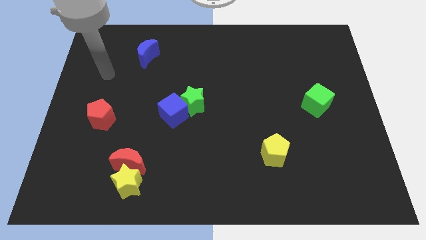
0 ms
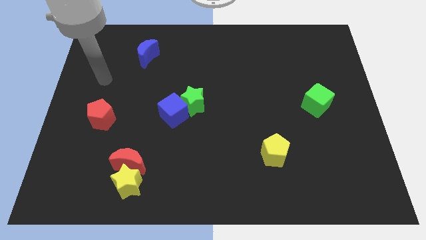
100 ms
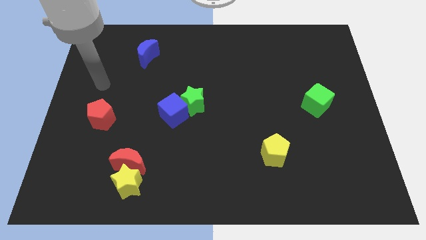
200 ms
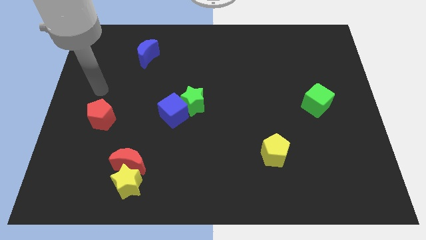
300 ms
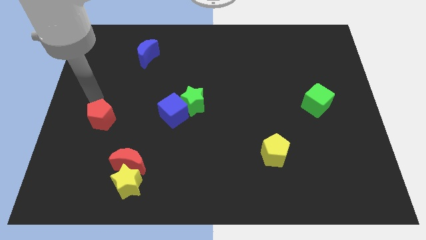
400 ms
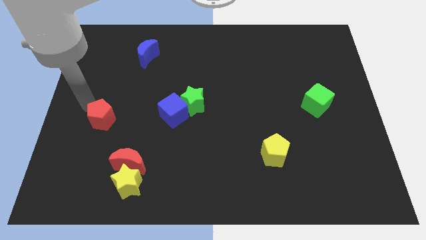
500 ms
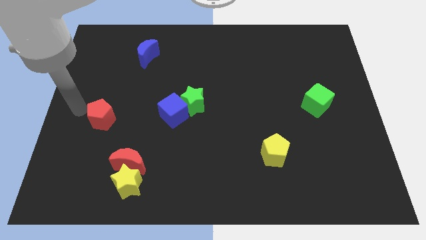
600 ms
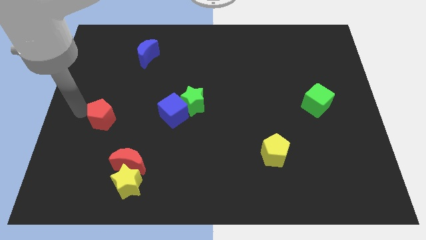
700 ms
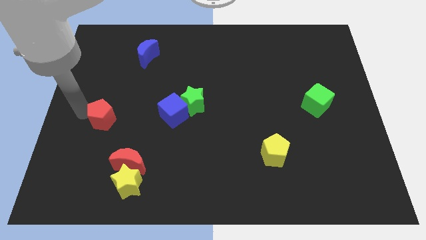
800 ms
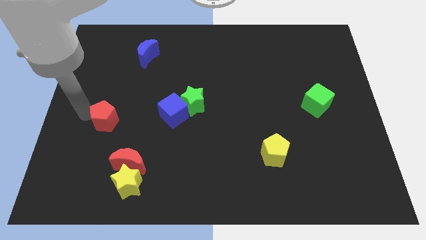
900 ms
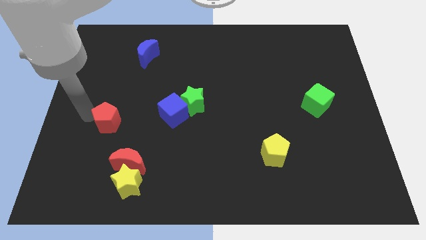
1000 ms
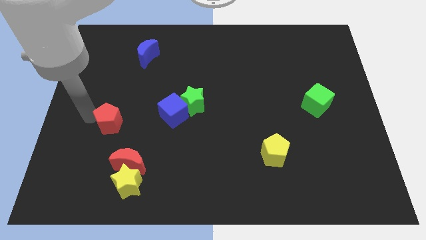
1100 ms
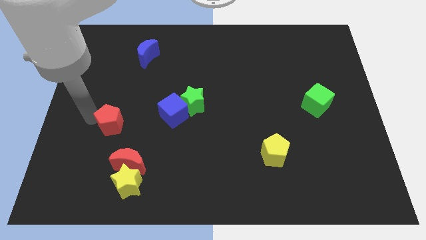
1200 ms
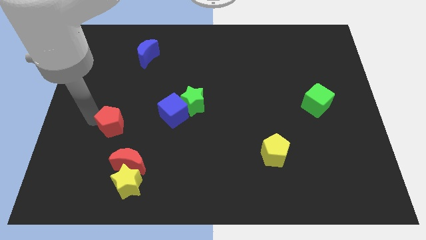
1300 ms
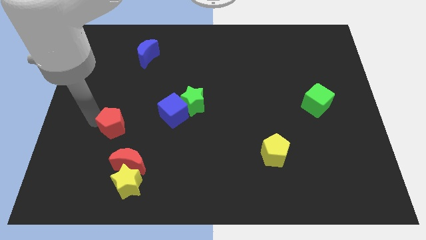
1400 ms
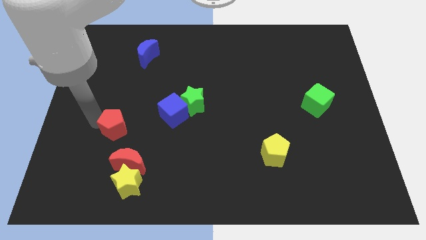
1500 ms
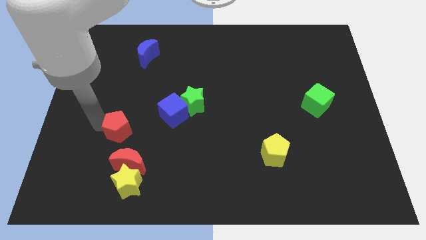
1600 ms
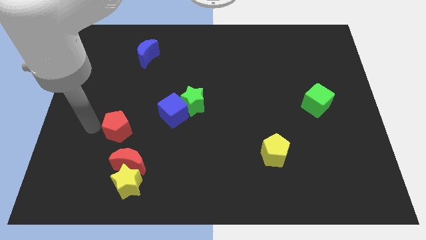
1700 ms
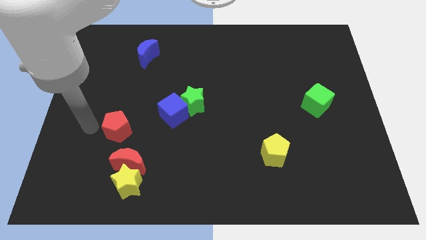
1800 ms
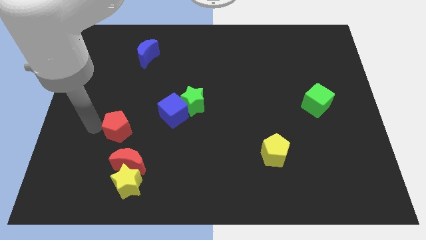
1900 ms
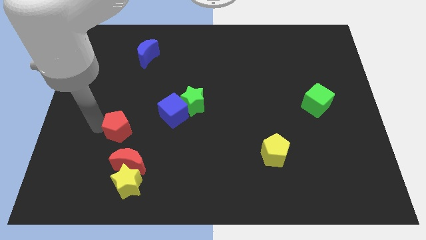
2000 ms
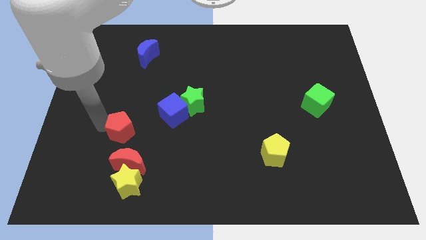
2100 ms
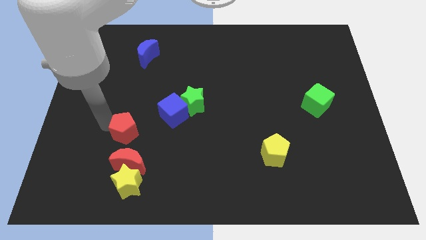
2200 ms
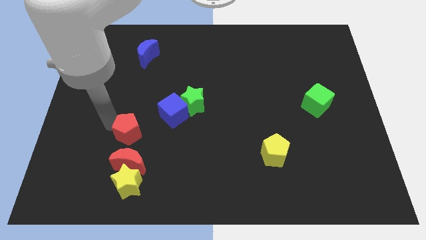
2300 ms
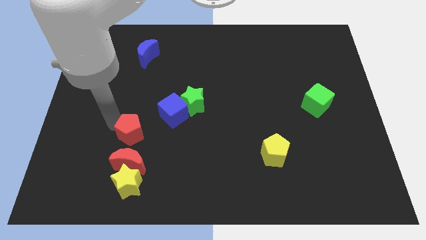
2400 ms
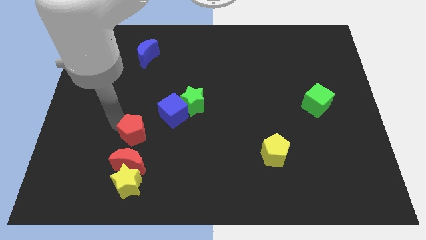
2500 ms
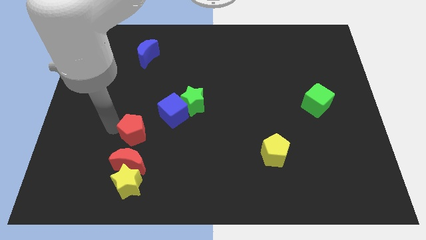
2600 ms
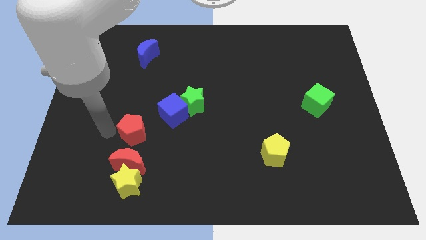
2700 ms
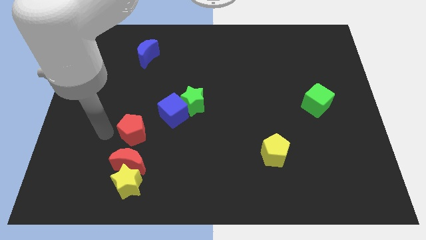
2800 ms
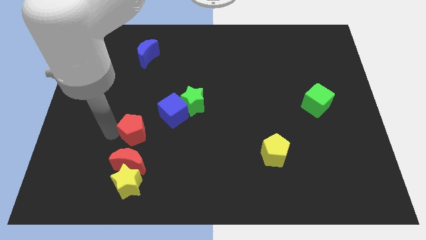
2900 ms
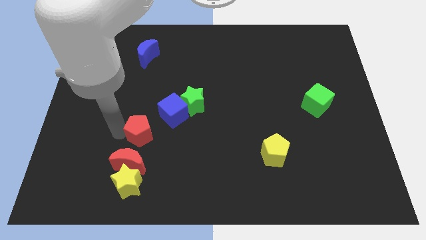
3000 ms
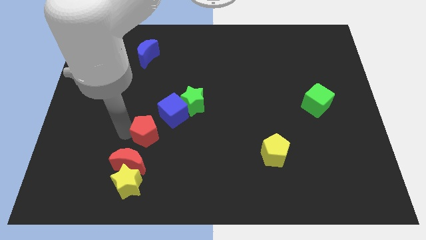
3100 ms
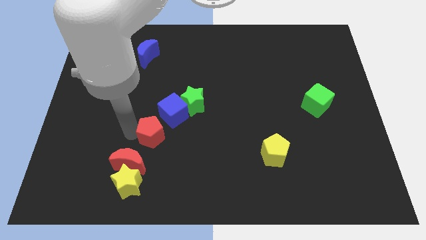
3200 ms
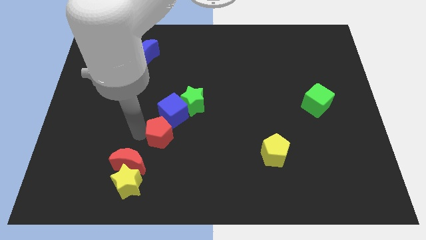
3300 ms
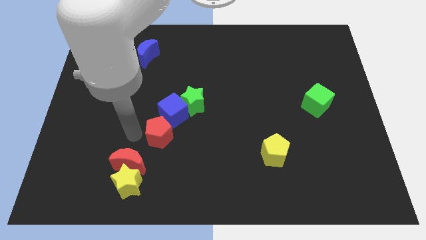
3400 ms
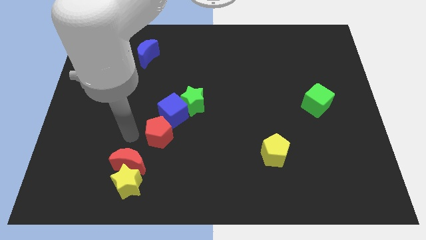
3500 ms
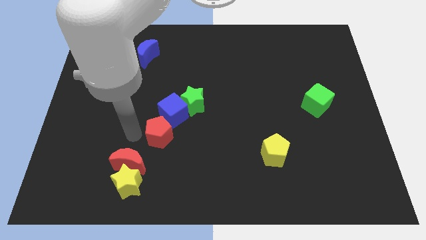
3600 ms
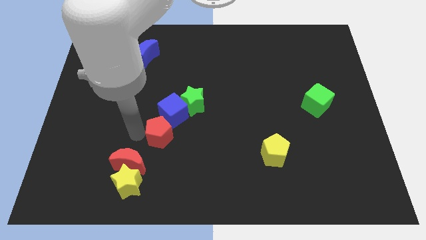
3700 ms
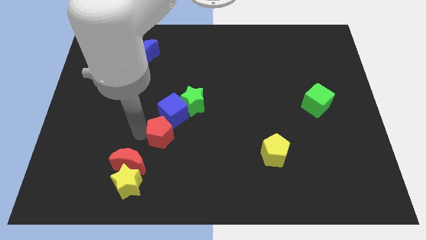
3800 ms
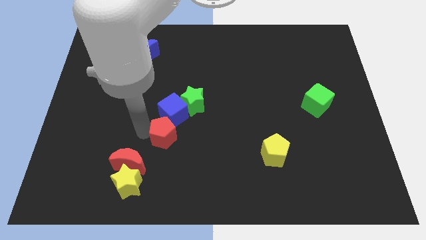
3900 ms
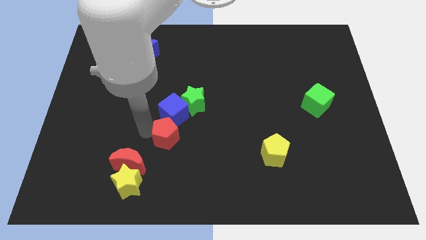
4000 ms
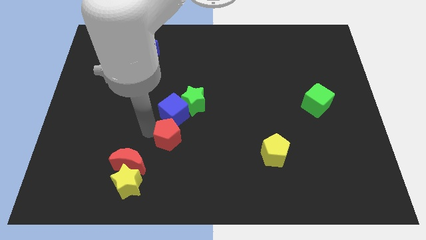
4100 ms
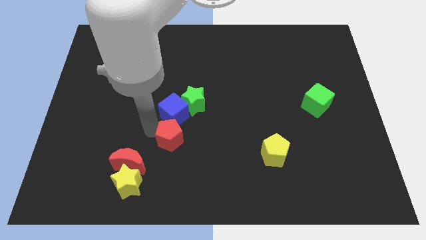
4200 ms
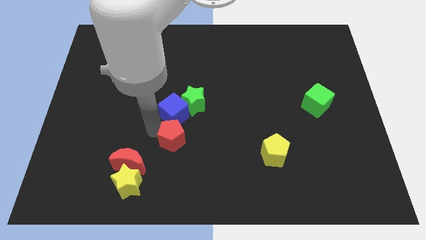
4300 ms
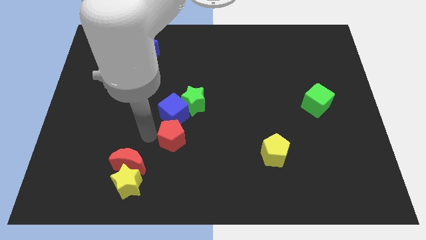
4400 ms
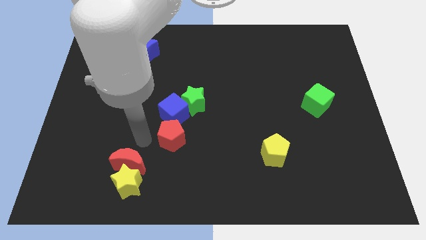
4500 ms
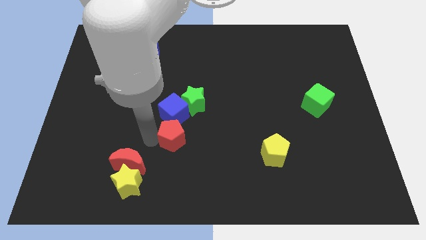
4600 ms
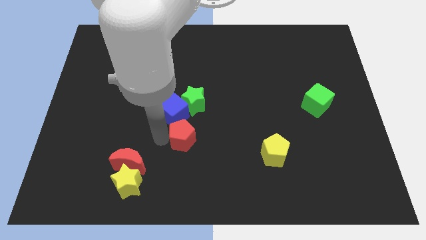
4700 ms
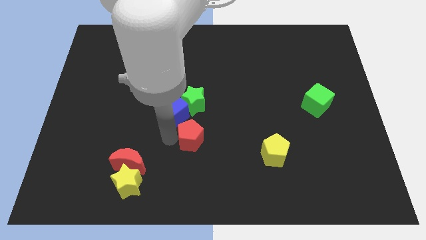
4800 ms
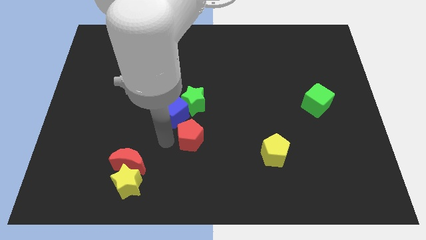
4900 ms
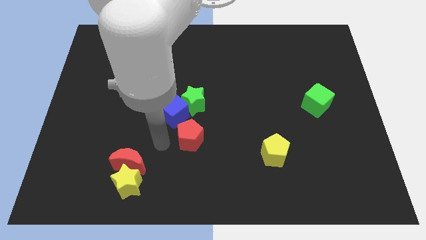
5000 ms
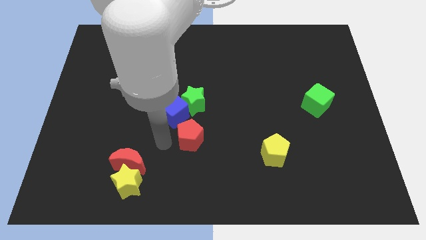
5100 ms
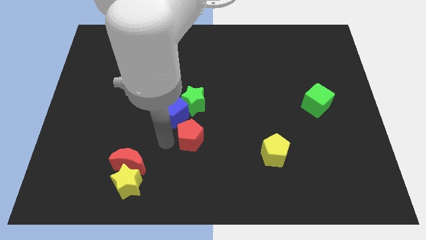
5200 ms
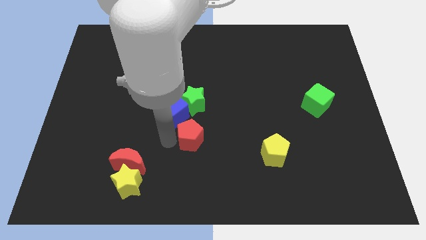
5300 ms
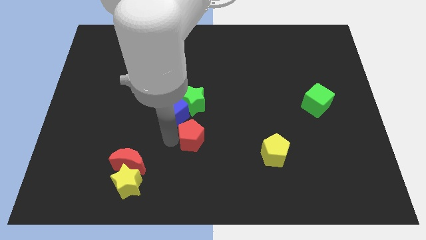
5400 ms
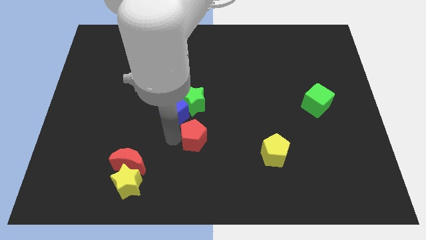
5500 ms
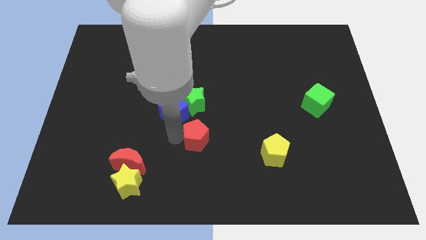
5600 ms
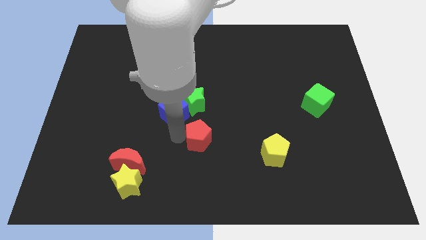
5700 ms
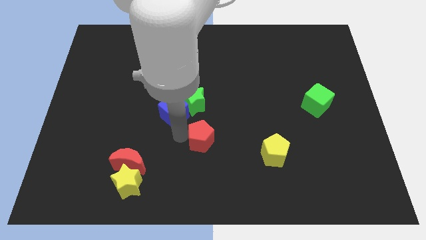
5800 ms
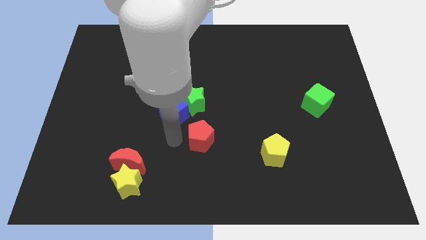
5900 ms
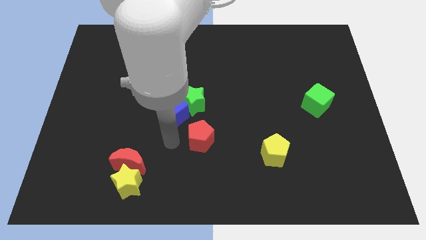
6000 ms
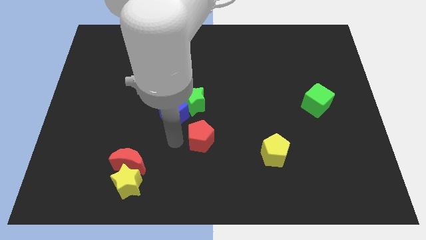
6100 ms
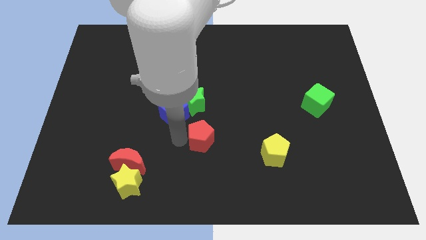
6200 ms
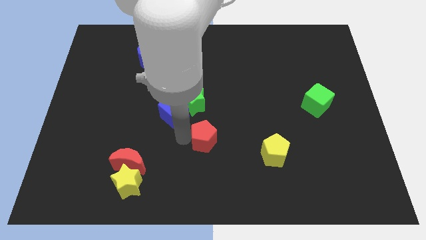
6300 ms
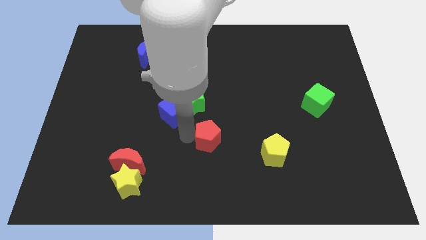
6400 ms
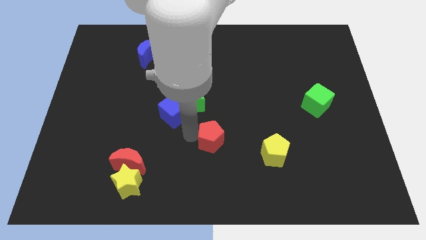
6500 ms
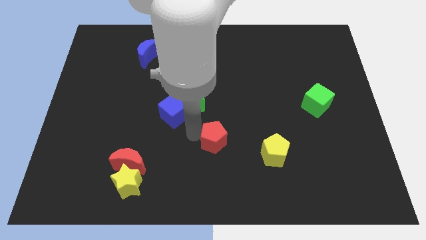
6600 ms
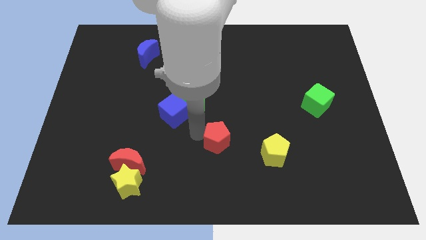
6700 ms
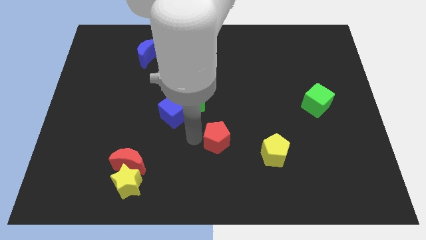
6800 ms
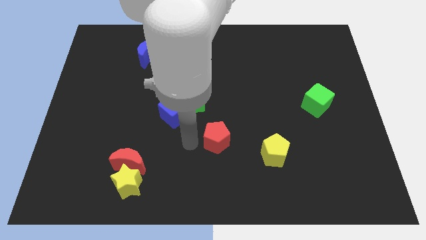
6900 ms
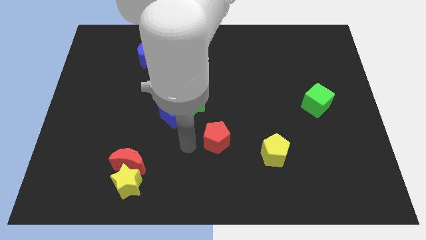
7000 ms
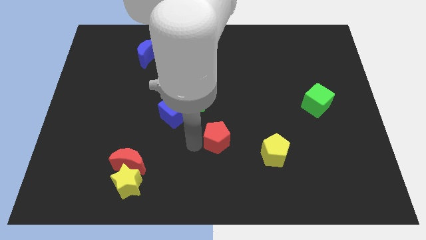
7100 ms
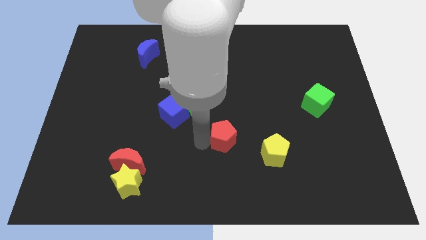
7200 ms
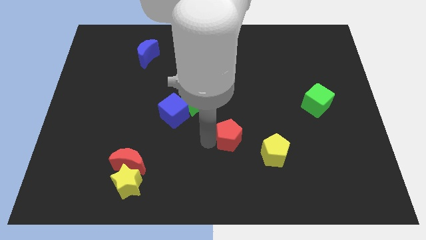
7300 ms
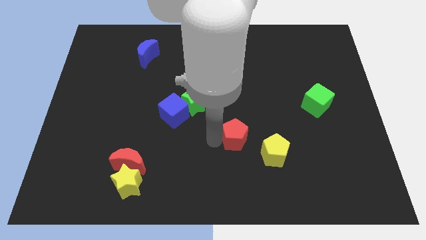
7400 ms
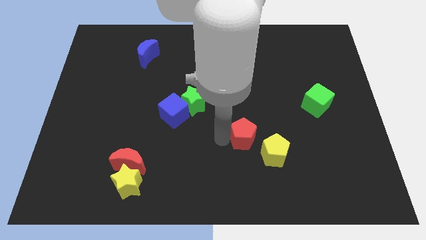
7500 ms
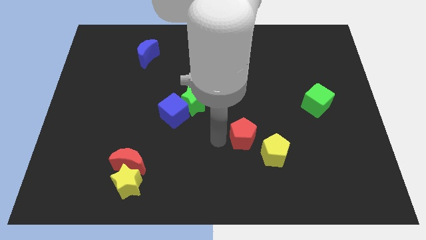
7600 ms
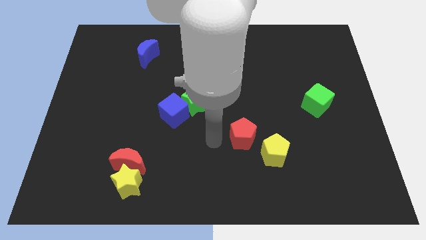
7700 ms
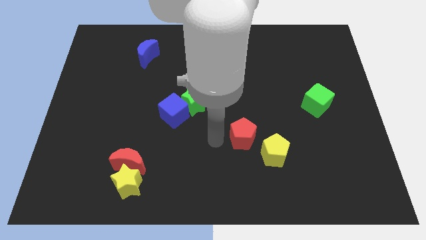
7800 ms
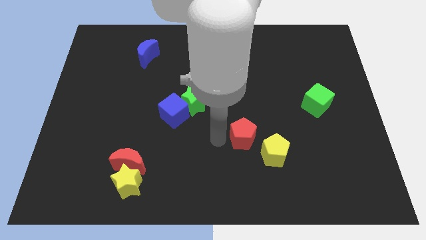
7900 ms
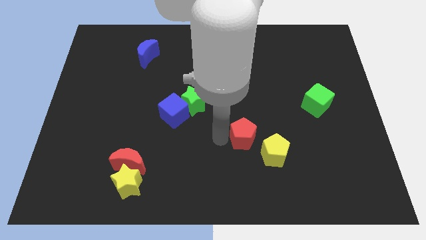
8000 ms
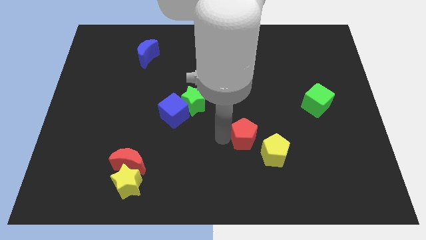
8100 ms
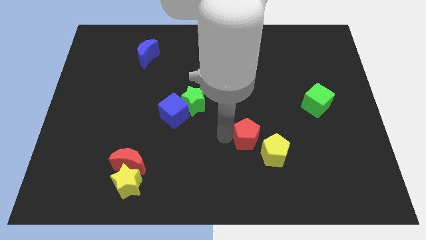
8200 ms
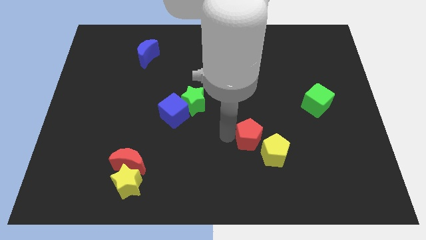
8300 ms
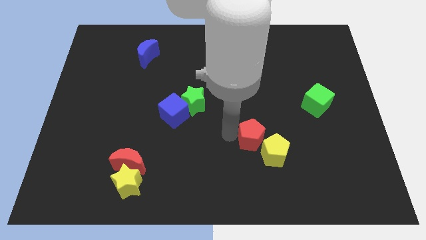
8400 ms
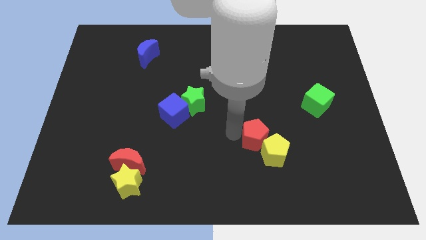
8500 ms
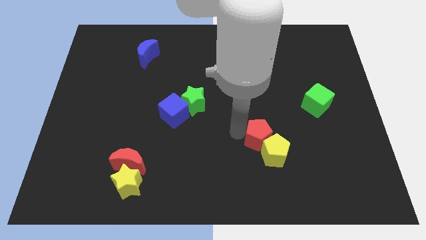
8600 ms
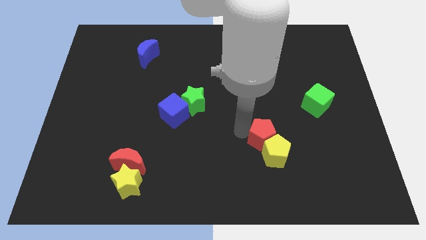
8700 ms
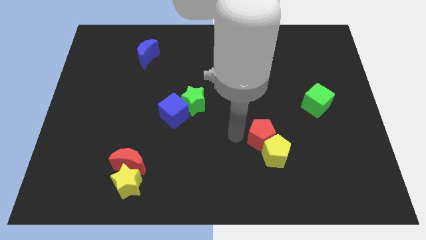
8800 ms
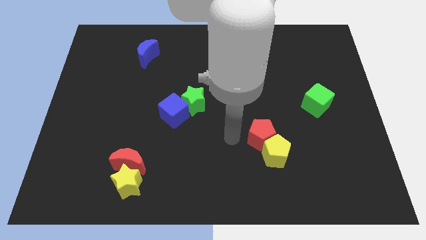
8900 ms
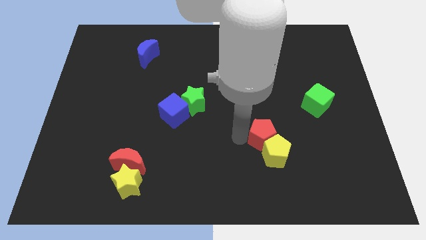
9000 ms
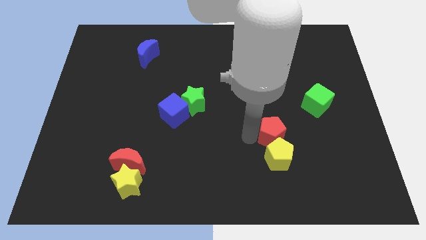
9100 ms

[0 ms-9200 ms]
push the red pentagon to the top right of the yellow pentagon
